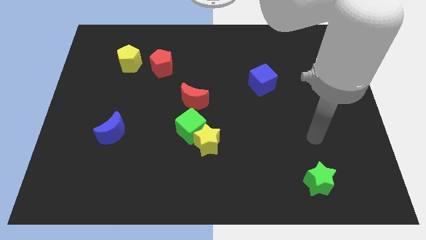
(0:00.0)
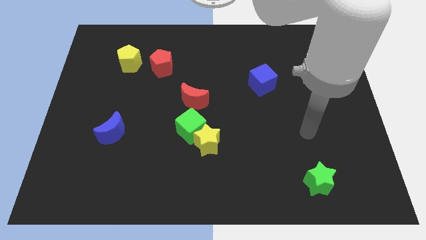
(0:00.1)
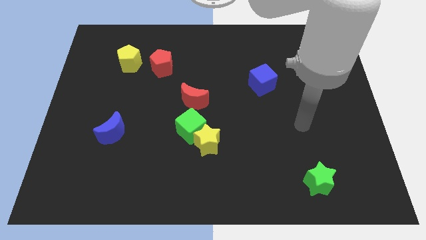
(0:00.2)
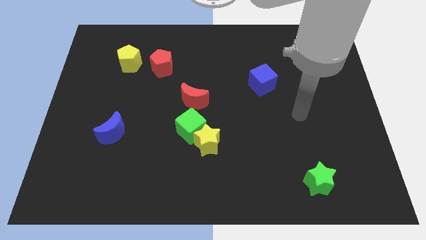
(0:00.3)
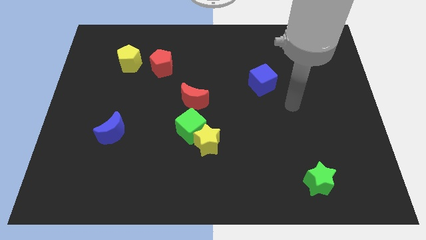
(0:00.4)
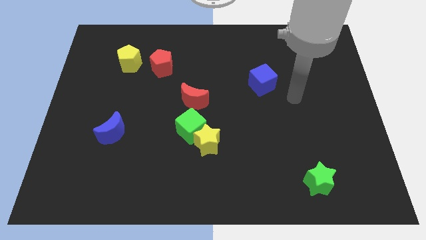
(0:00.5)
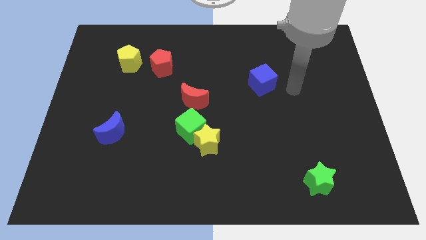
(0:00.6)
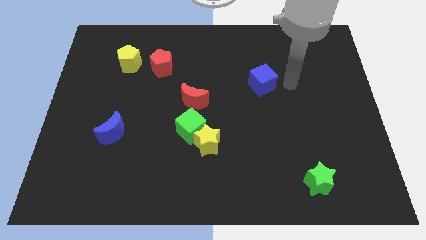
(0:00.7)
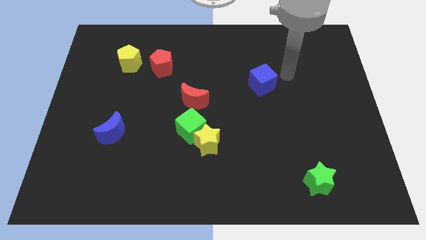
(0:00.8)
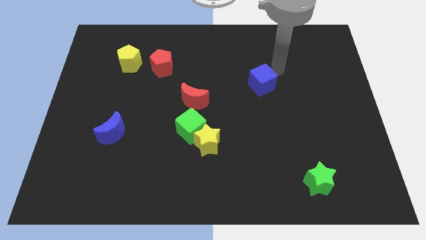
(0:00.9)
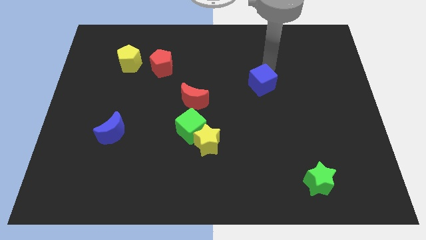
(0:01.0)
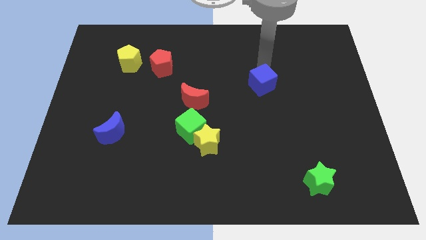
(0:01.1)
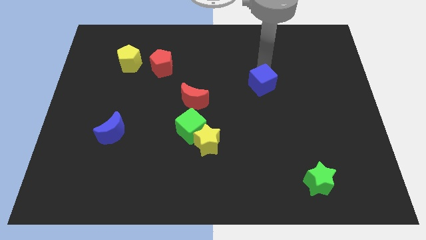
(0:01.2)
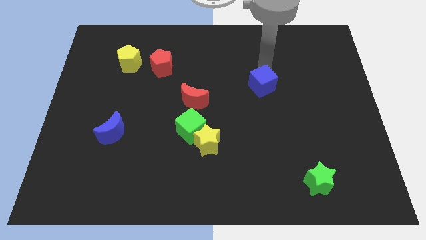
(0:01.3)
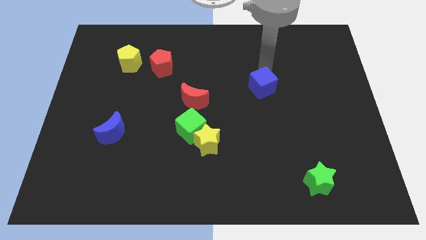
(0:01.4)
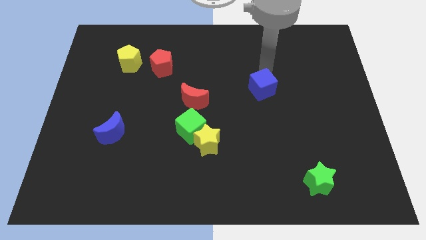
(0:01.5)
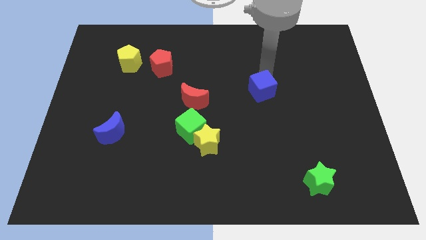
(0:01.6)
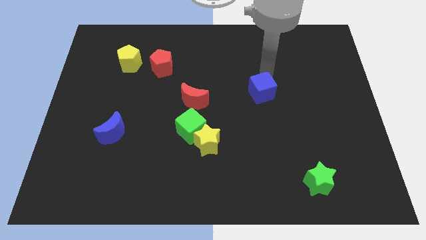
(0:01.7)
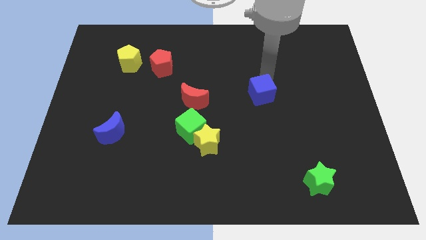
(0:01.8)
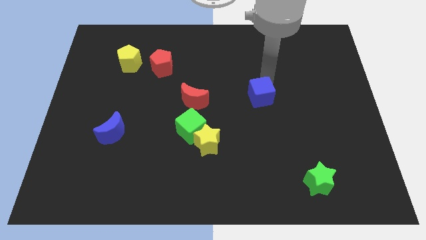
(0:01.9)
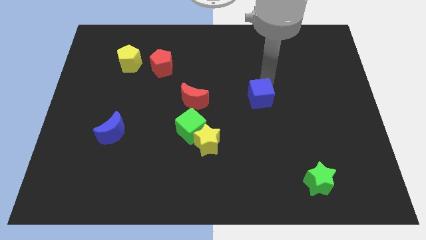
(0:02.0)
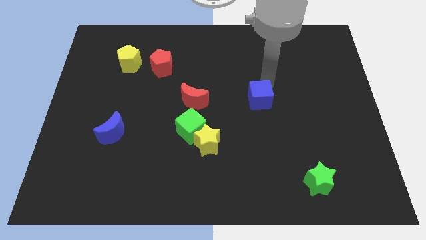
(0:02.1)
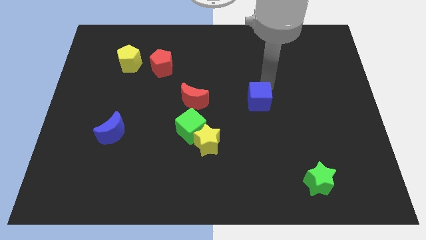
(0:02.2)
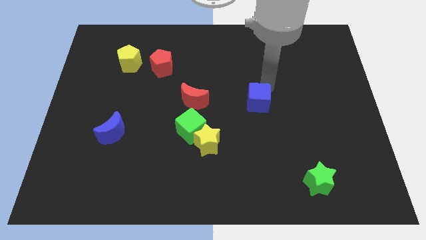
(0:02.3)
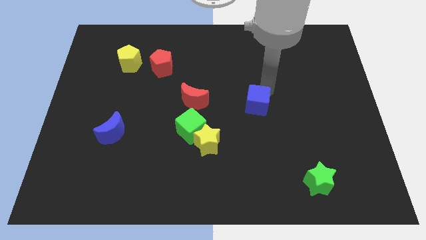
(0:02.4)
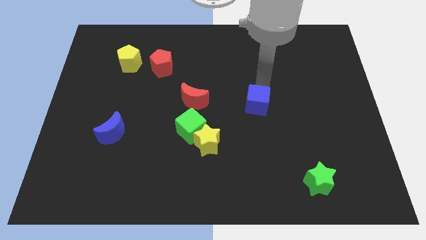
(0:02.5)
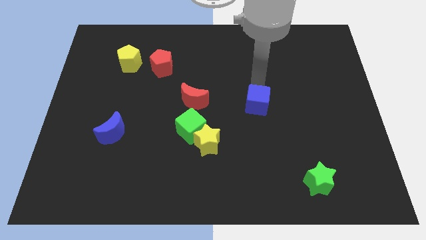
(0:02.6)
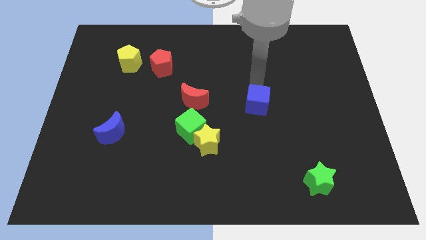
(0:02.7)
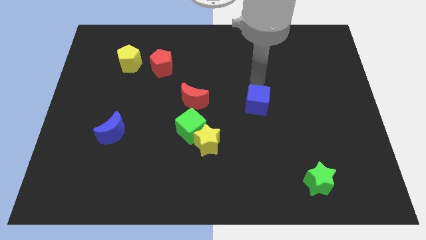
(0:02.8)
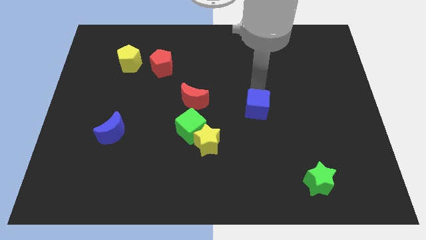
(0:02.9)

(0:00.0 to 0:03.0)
push the blue cube down slightly

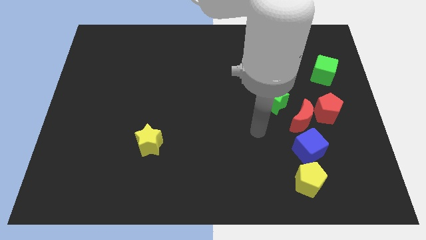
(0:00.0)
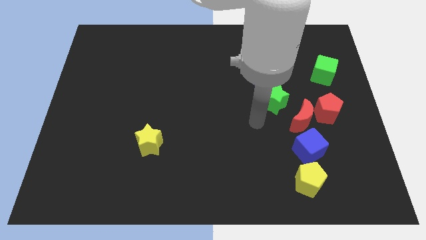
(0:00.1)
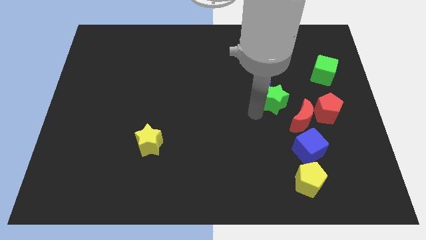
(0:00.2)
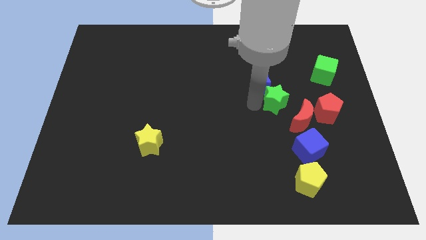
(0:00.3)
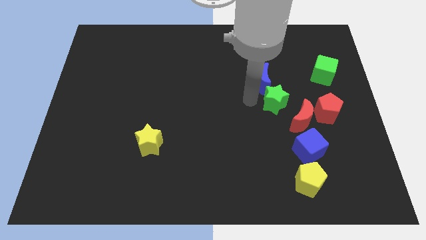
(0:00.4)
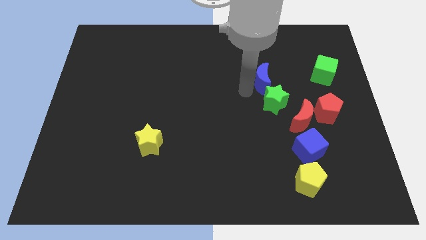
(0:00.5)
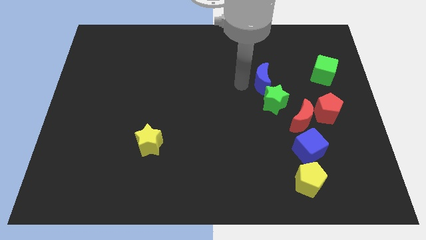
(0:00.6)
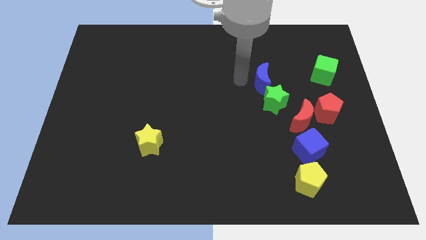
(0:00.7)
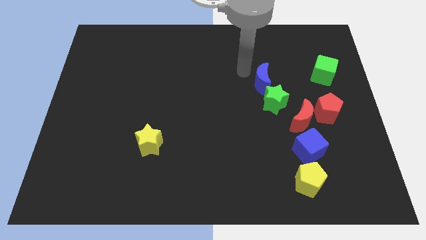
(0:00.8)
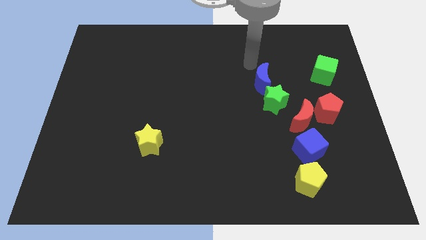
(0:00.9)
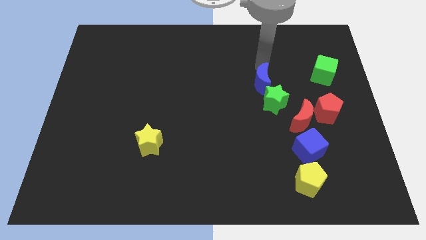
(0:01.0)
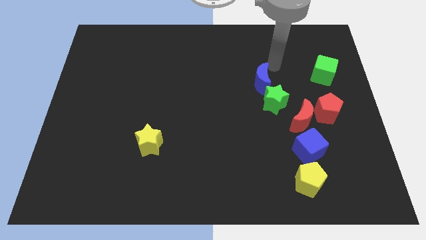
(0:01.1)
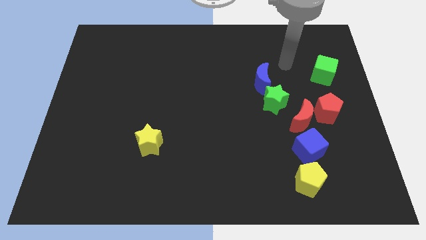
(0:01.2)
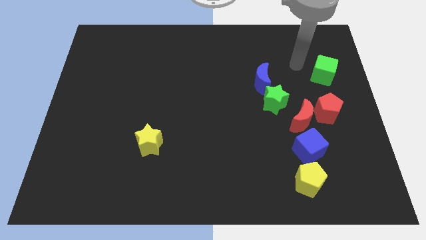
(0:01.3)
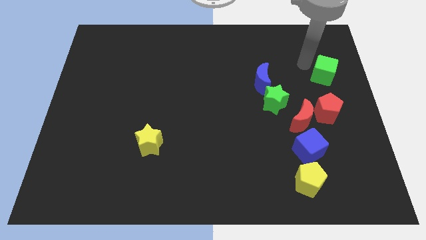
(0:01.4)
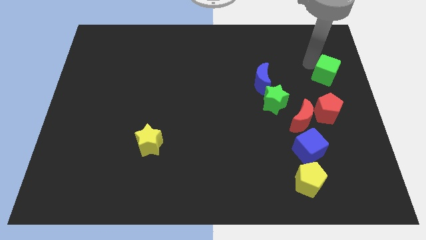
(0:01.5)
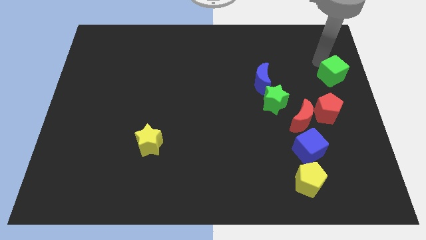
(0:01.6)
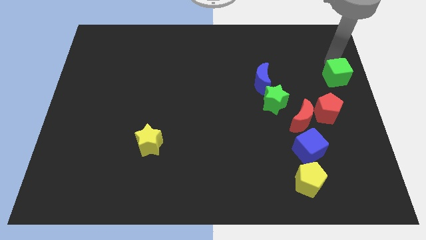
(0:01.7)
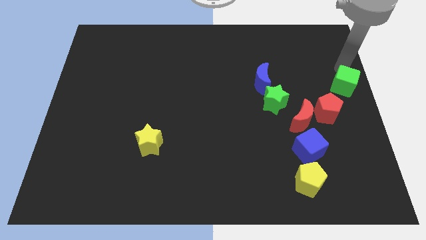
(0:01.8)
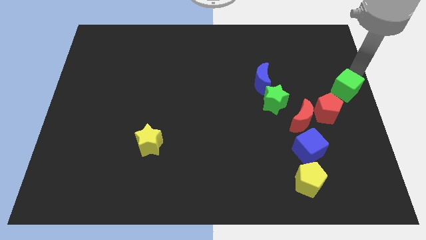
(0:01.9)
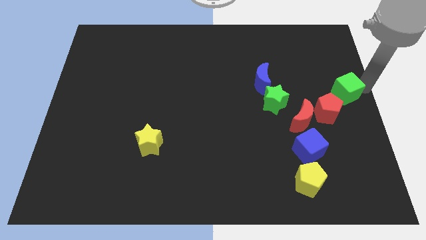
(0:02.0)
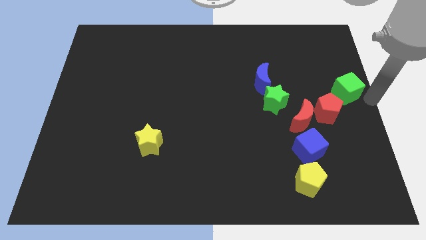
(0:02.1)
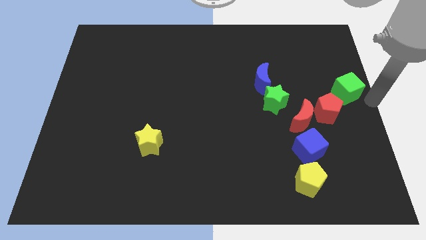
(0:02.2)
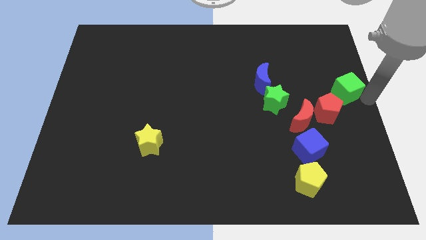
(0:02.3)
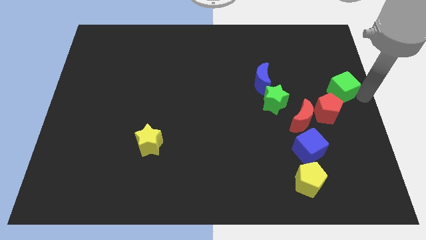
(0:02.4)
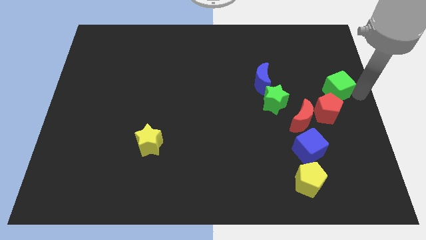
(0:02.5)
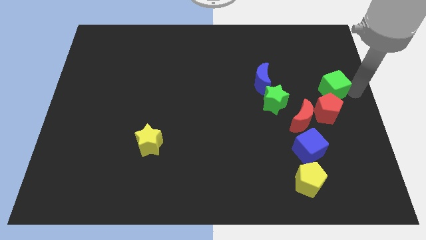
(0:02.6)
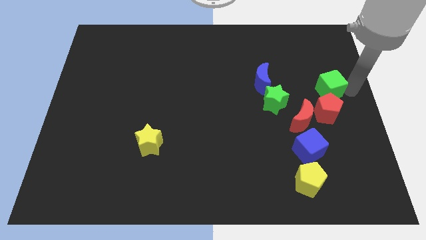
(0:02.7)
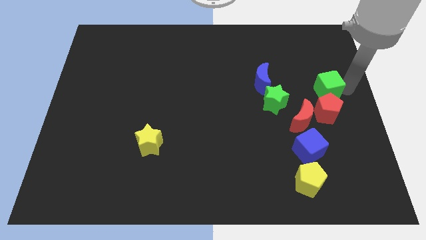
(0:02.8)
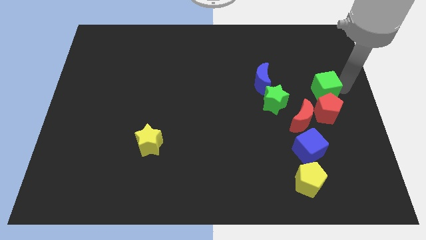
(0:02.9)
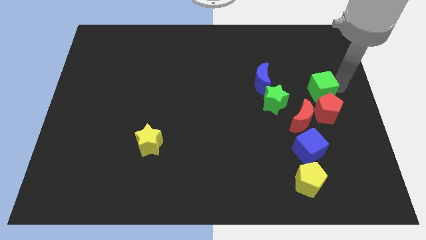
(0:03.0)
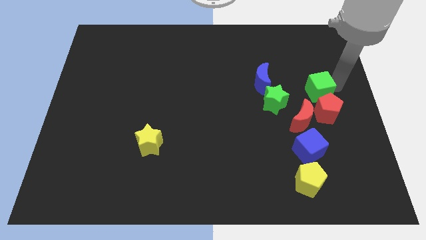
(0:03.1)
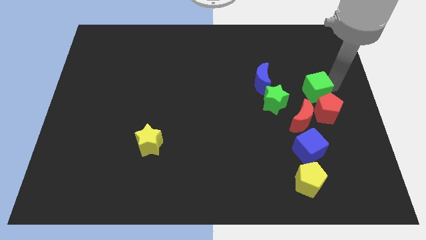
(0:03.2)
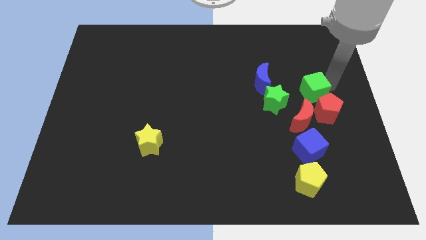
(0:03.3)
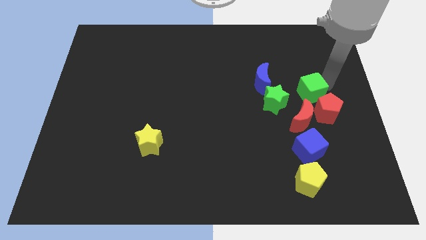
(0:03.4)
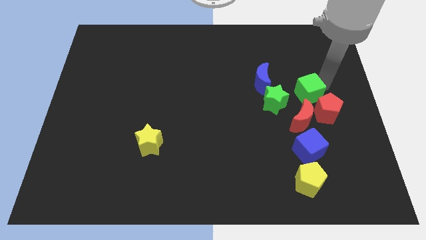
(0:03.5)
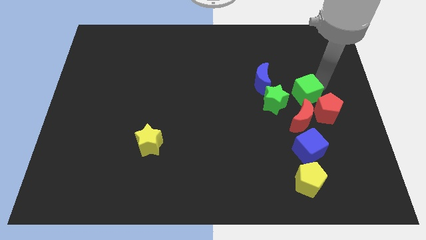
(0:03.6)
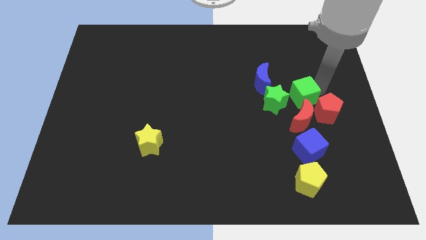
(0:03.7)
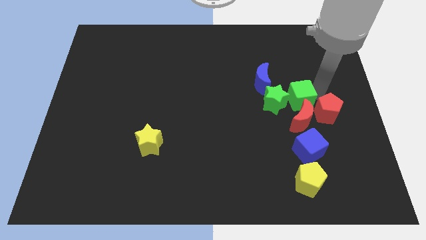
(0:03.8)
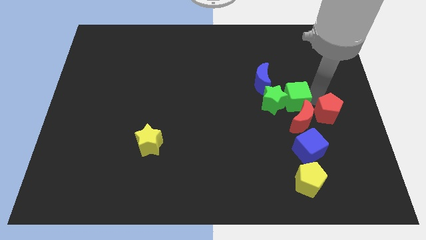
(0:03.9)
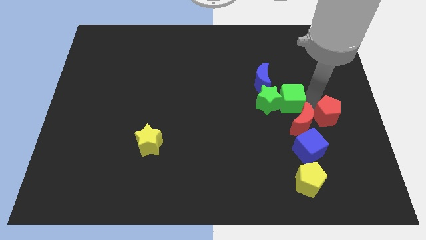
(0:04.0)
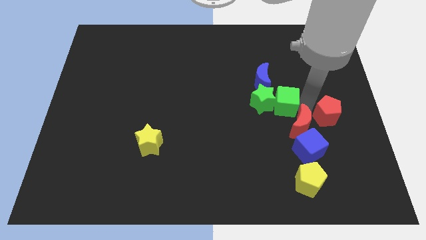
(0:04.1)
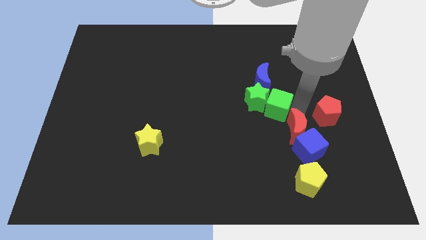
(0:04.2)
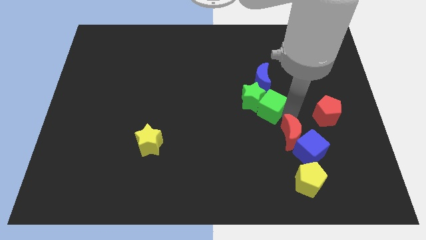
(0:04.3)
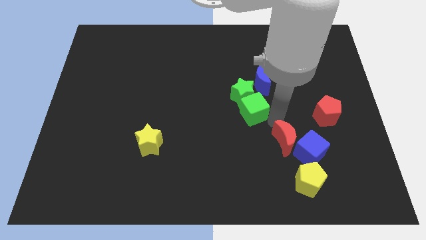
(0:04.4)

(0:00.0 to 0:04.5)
slide the green cube downwards and to the left

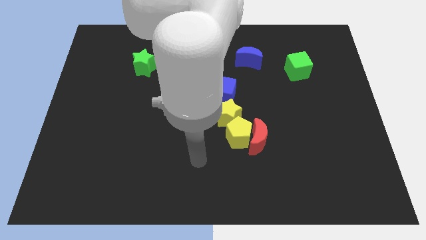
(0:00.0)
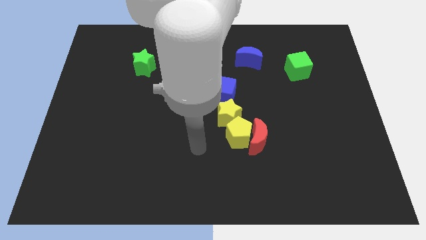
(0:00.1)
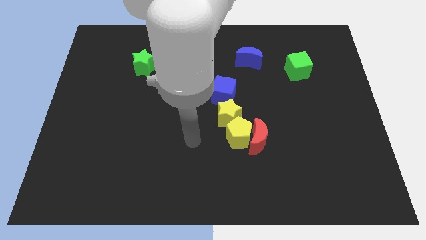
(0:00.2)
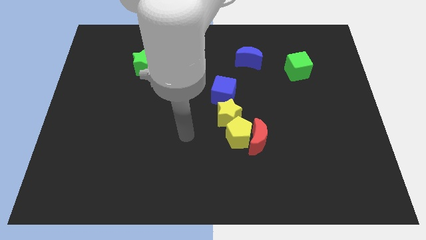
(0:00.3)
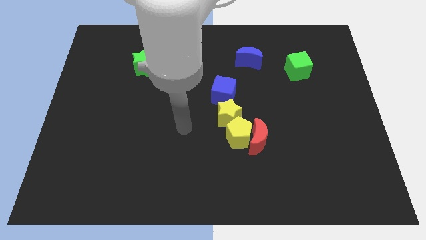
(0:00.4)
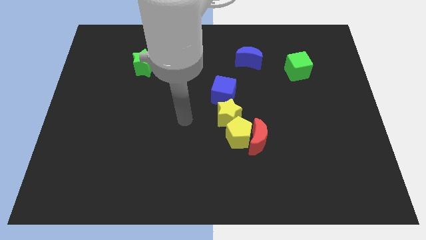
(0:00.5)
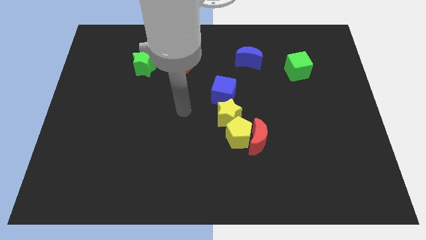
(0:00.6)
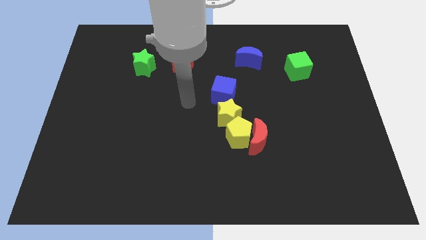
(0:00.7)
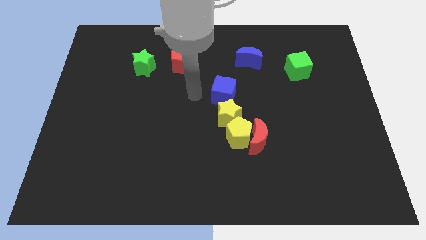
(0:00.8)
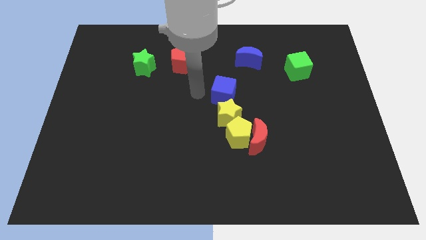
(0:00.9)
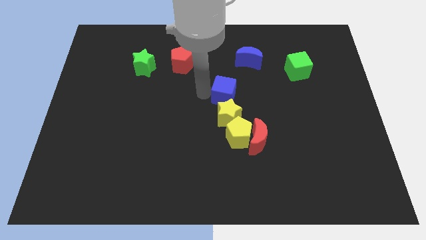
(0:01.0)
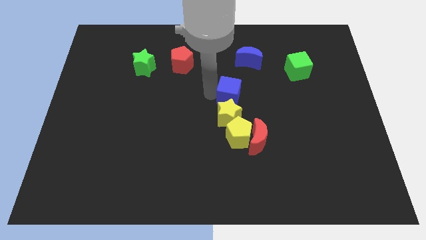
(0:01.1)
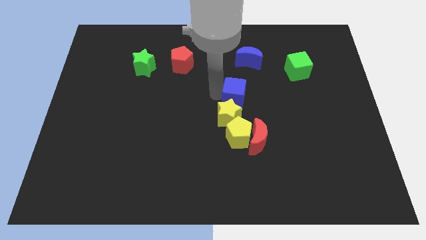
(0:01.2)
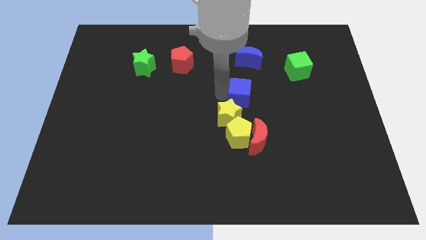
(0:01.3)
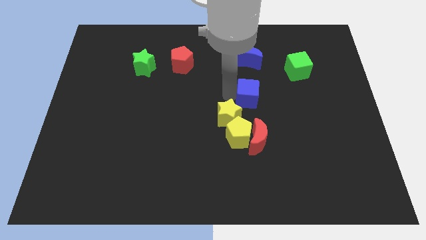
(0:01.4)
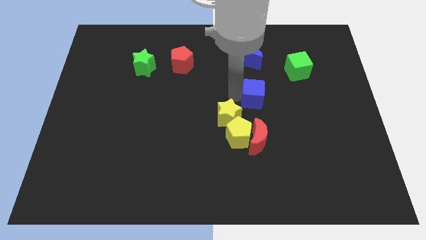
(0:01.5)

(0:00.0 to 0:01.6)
slide the blue cube right a little bit
